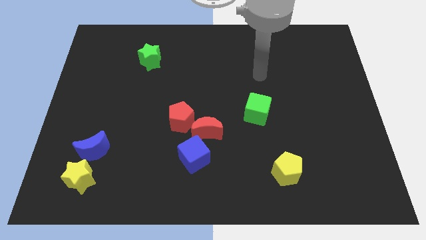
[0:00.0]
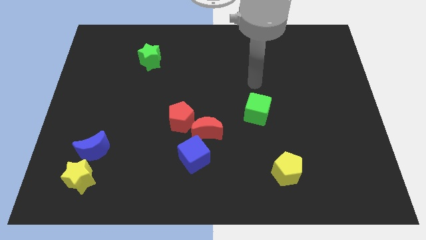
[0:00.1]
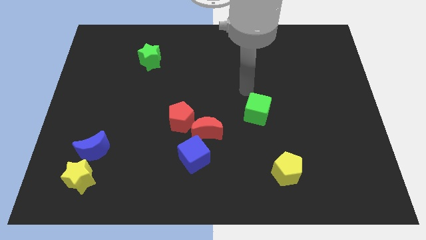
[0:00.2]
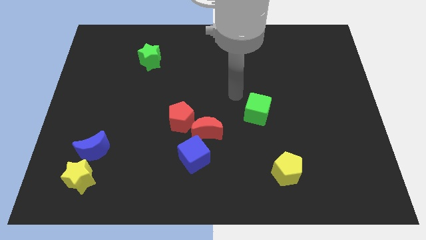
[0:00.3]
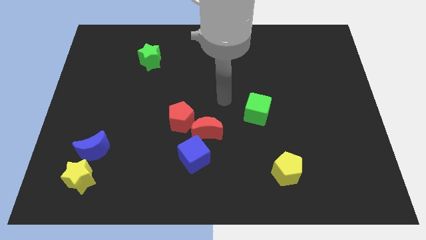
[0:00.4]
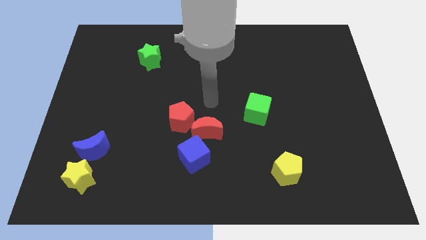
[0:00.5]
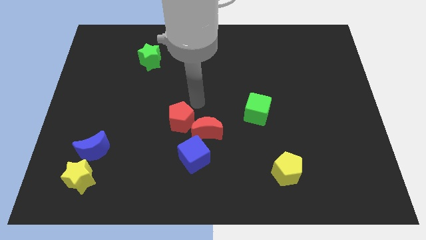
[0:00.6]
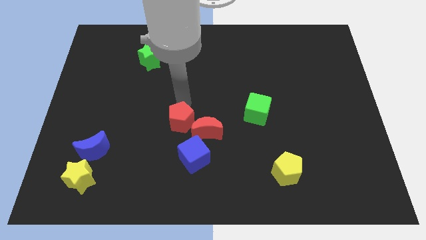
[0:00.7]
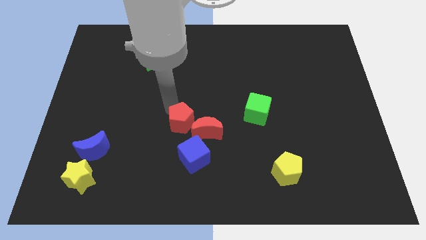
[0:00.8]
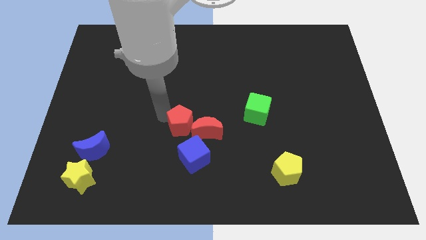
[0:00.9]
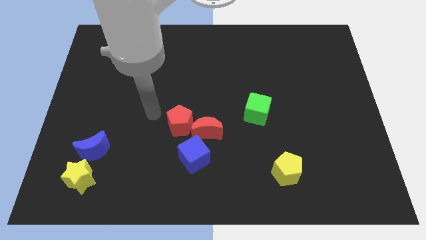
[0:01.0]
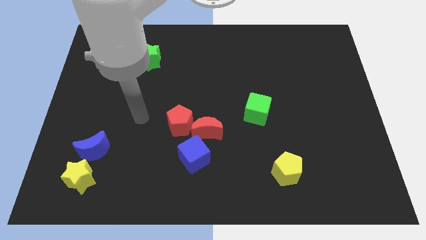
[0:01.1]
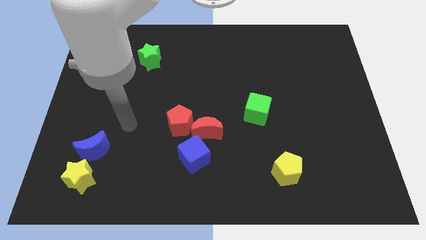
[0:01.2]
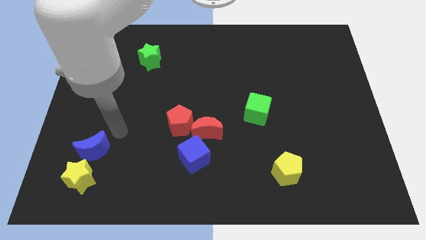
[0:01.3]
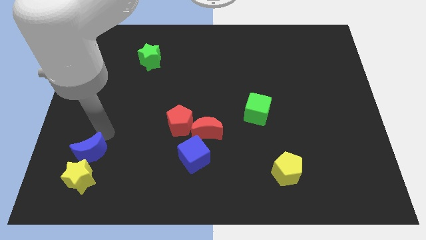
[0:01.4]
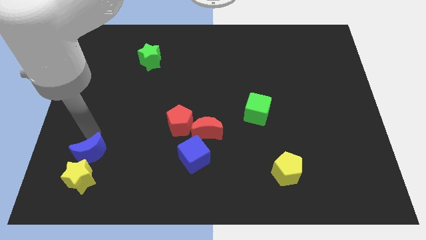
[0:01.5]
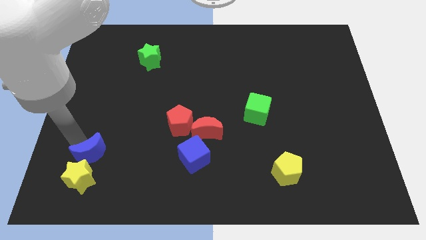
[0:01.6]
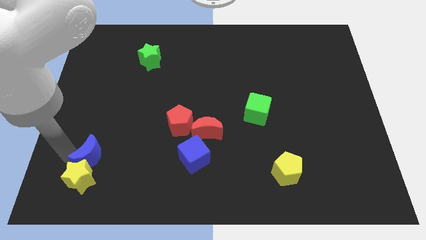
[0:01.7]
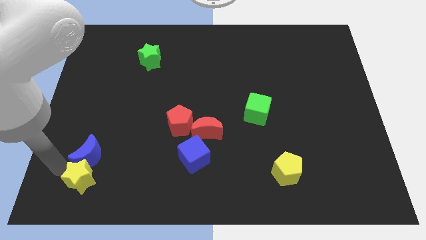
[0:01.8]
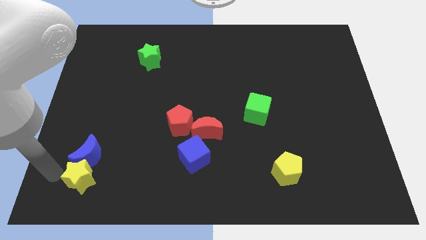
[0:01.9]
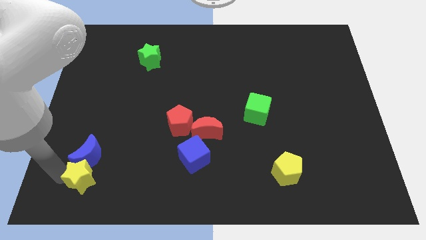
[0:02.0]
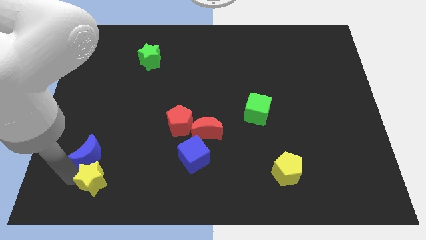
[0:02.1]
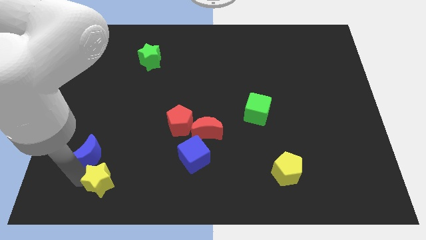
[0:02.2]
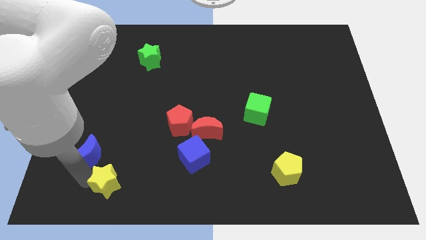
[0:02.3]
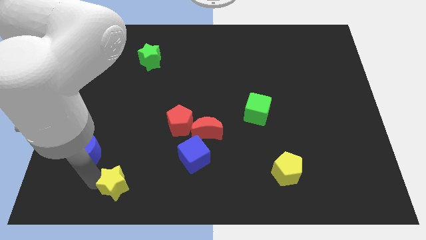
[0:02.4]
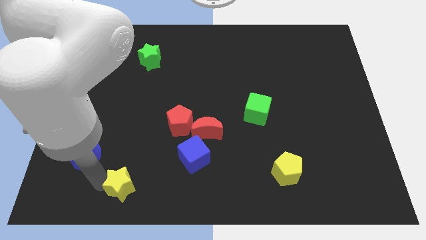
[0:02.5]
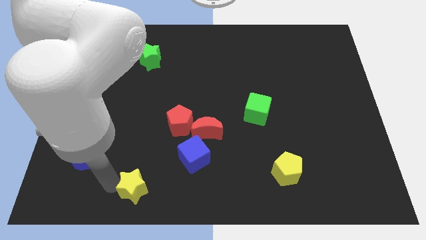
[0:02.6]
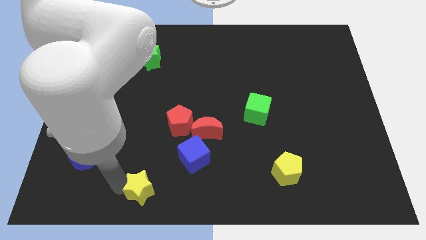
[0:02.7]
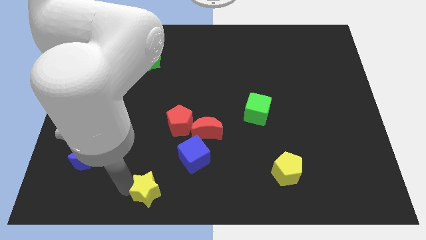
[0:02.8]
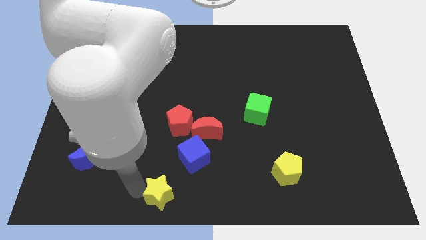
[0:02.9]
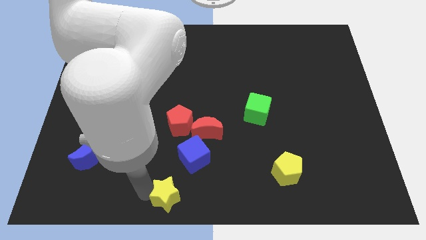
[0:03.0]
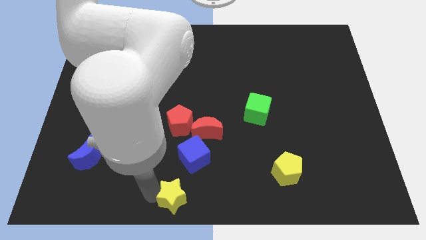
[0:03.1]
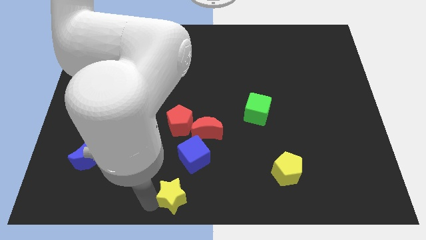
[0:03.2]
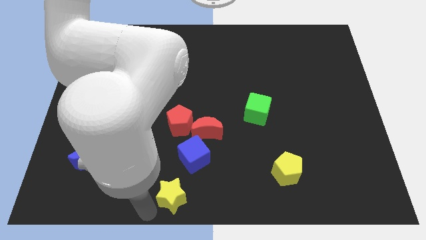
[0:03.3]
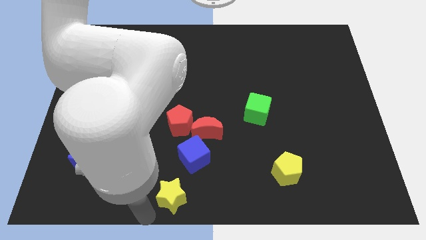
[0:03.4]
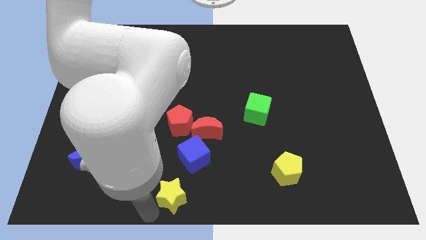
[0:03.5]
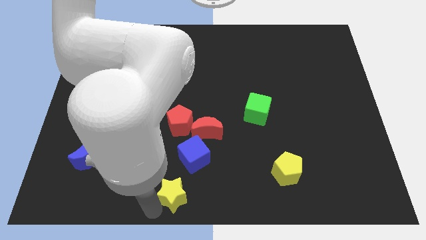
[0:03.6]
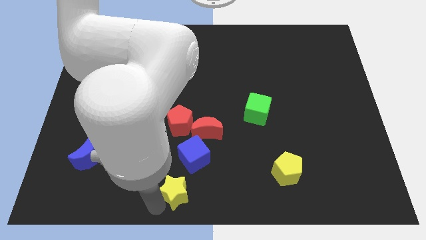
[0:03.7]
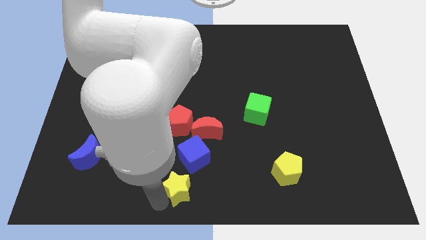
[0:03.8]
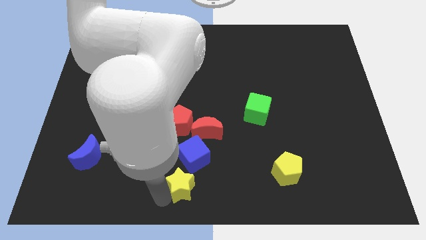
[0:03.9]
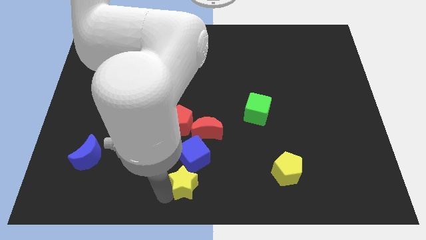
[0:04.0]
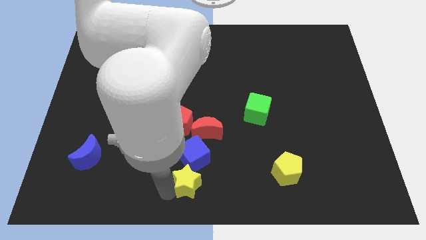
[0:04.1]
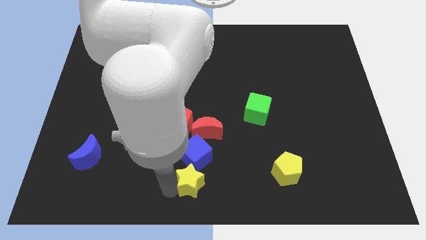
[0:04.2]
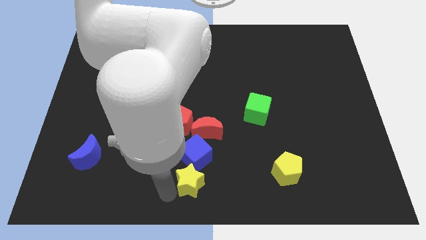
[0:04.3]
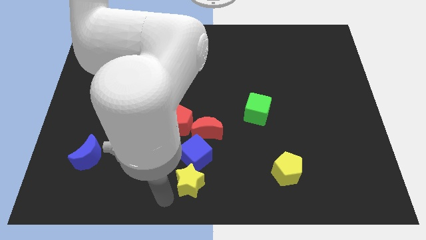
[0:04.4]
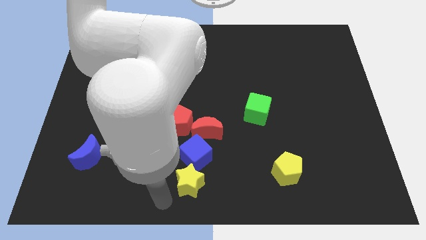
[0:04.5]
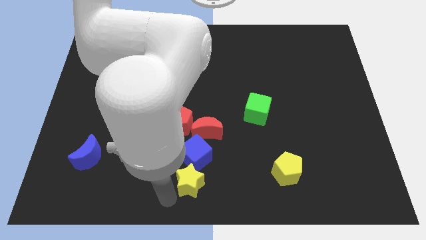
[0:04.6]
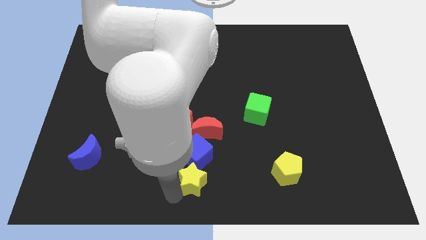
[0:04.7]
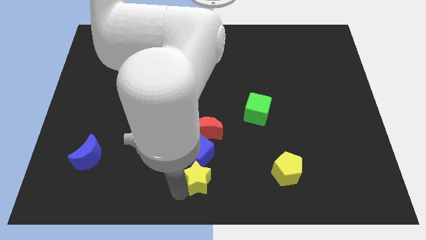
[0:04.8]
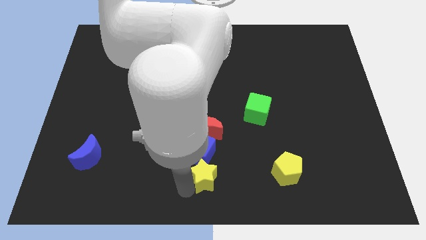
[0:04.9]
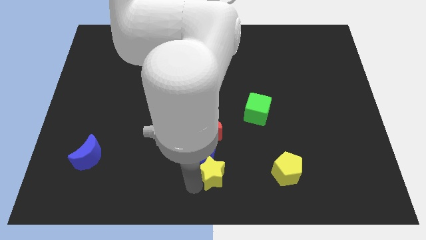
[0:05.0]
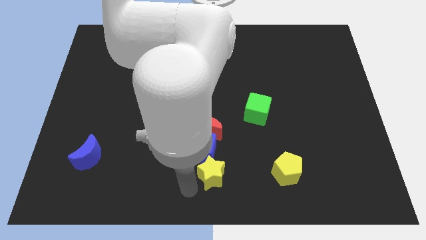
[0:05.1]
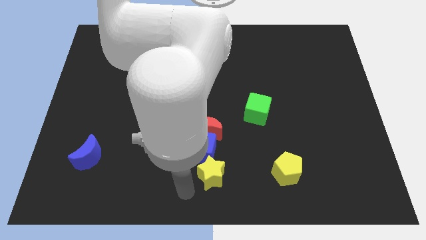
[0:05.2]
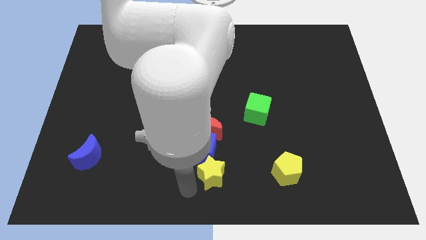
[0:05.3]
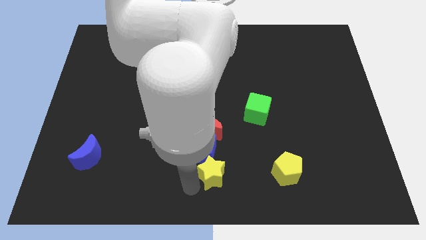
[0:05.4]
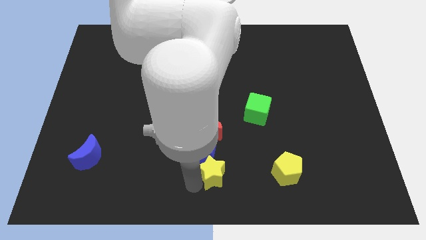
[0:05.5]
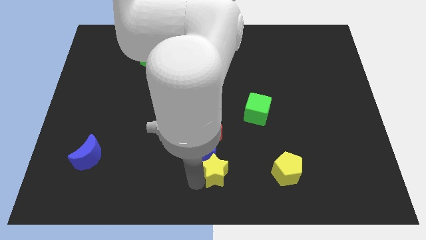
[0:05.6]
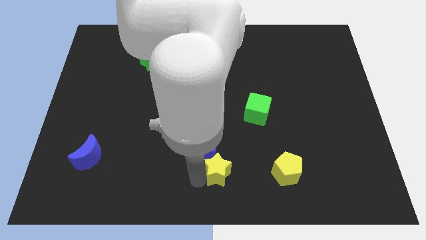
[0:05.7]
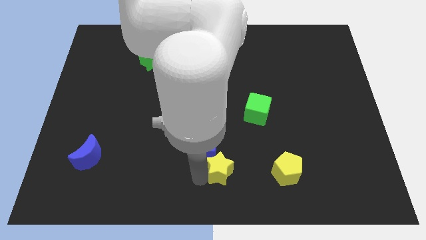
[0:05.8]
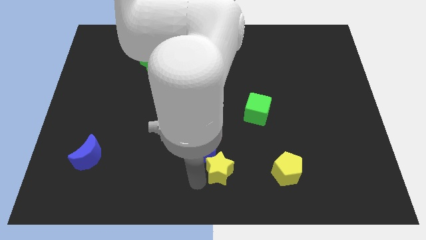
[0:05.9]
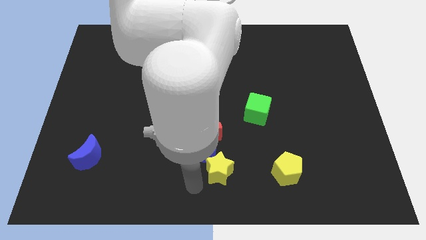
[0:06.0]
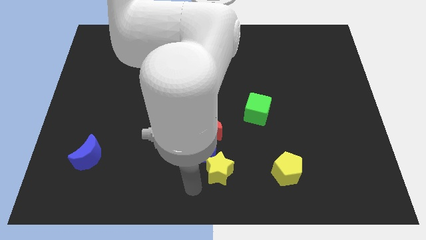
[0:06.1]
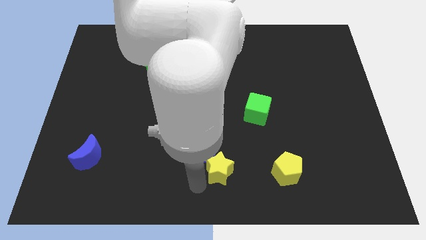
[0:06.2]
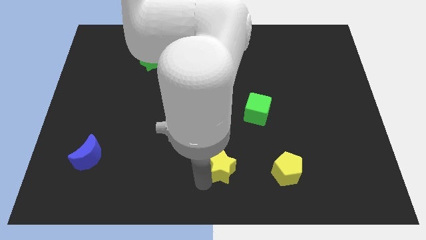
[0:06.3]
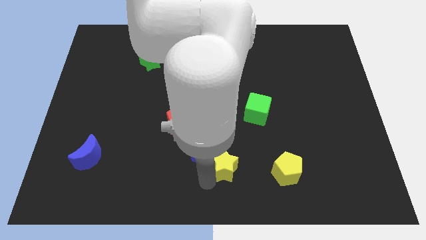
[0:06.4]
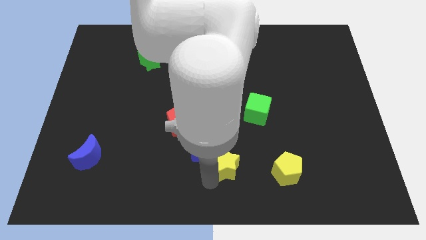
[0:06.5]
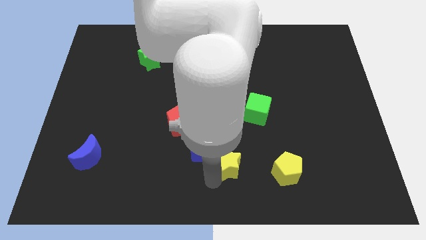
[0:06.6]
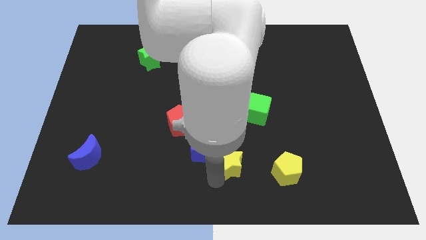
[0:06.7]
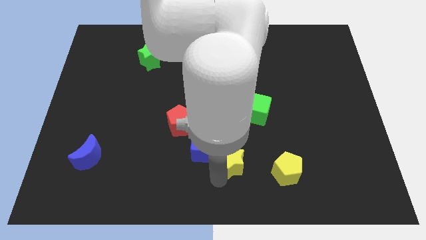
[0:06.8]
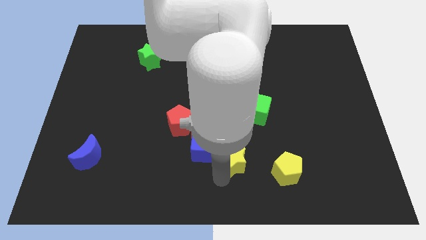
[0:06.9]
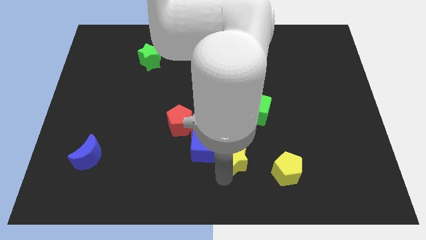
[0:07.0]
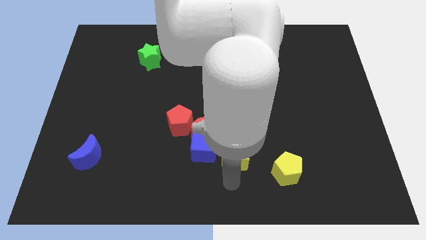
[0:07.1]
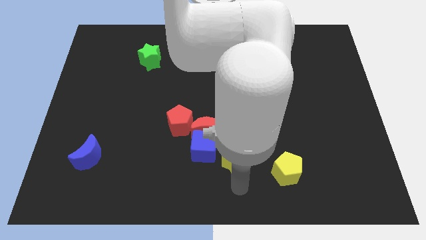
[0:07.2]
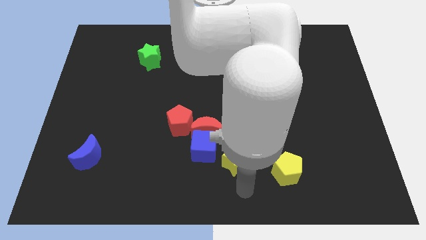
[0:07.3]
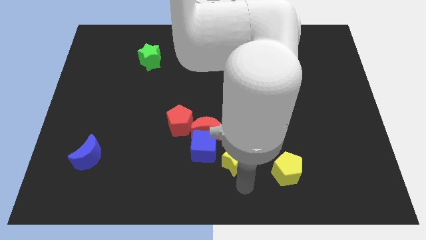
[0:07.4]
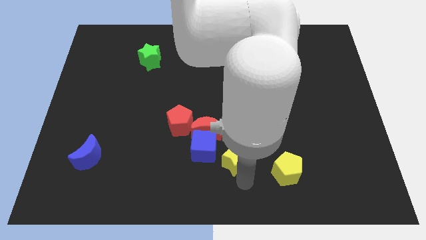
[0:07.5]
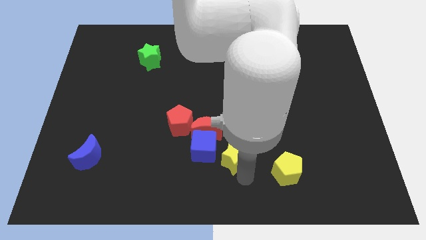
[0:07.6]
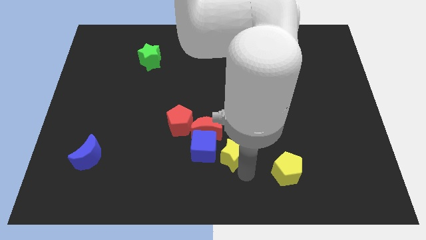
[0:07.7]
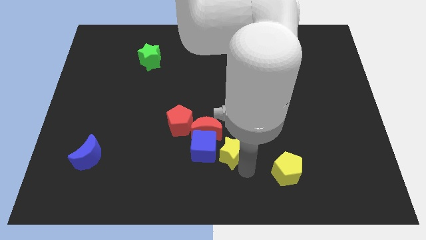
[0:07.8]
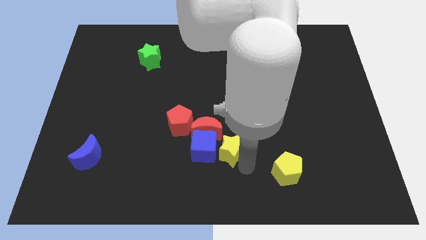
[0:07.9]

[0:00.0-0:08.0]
slide the yellow star diagonally up and to the right of the blue cube
